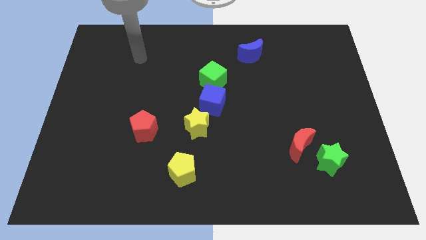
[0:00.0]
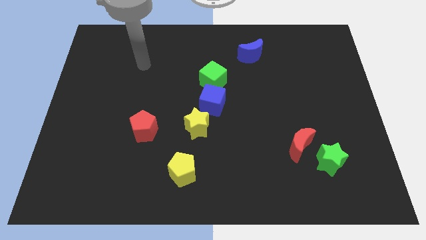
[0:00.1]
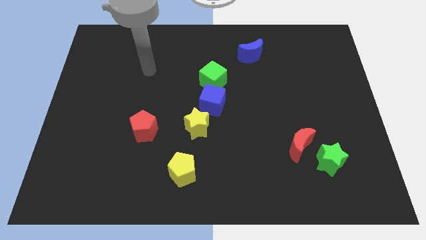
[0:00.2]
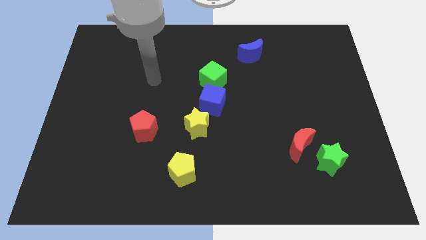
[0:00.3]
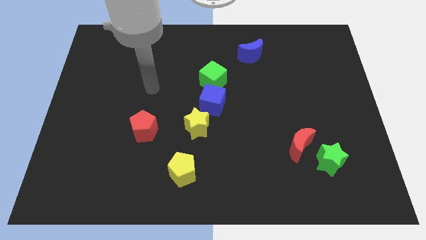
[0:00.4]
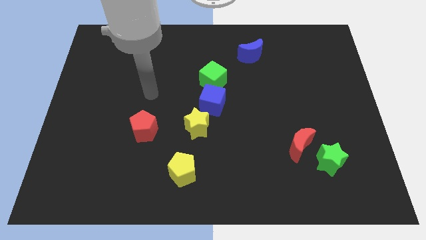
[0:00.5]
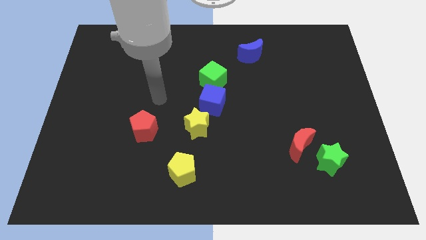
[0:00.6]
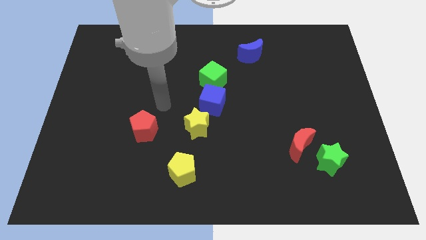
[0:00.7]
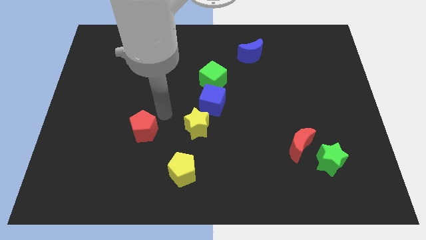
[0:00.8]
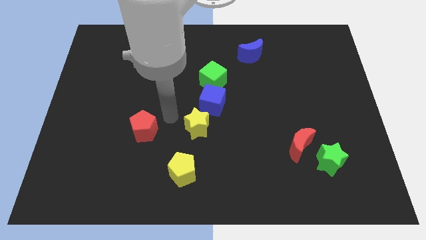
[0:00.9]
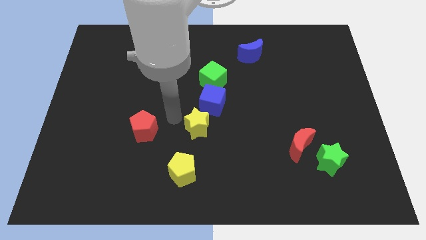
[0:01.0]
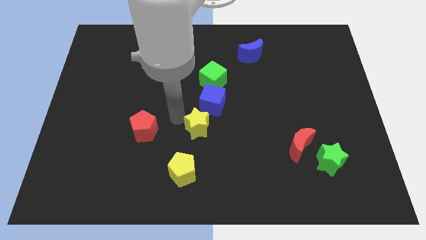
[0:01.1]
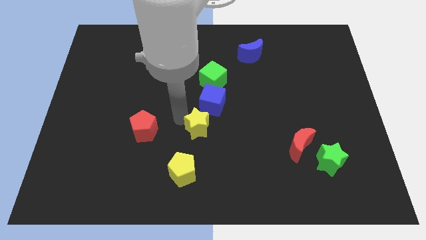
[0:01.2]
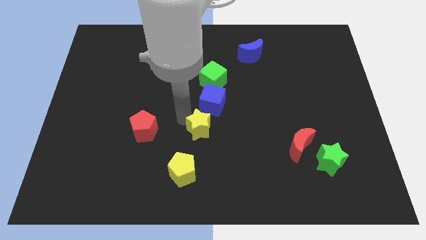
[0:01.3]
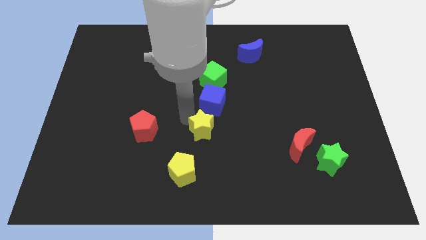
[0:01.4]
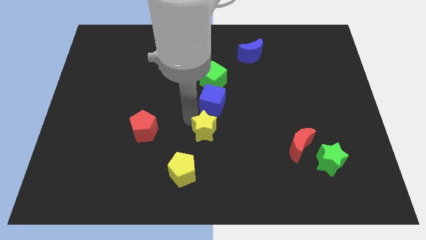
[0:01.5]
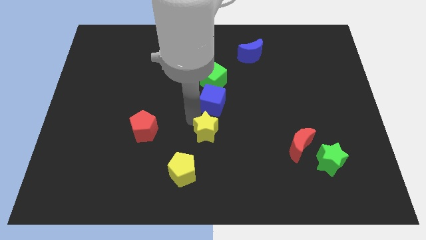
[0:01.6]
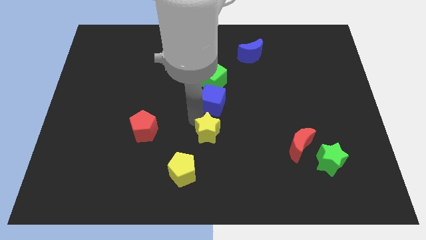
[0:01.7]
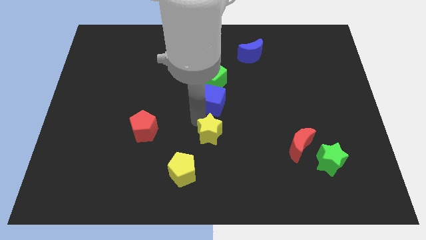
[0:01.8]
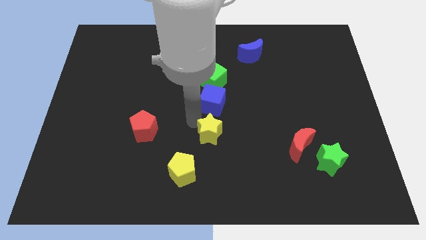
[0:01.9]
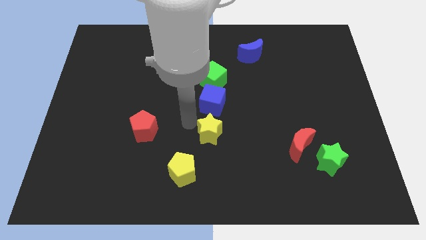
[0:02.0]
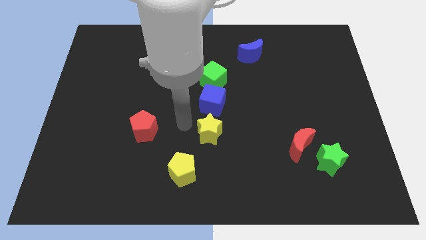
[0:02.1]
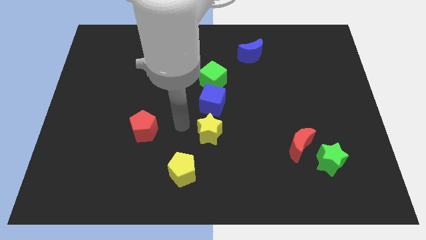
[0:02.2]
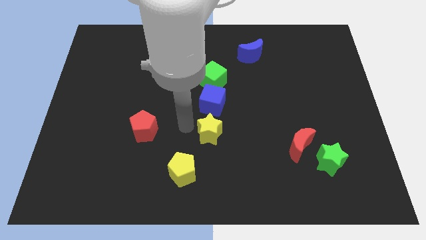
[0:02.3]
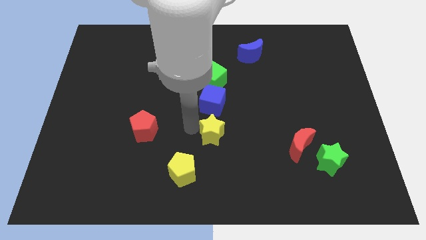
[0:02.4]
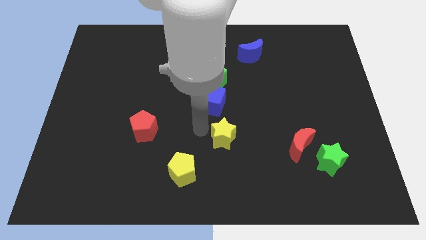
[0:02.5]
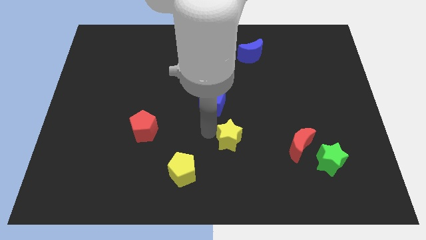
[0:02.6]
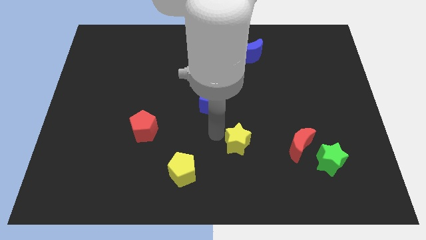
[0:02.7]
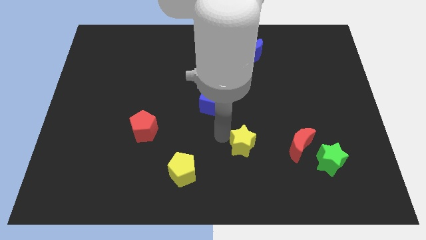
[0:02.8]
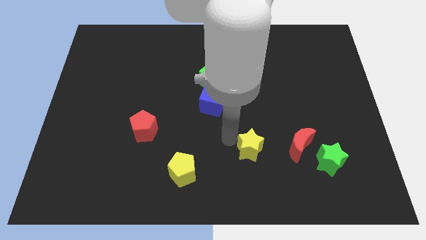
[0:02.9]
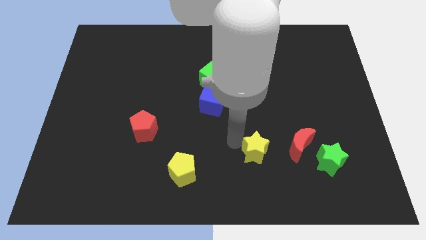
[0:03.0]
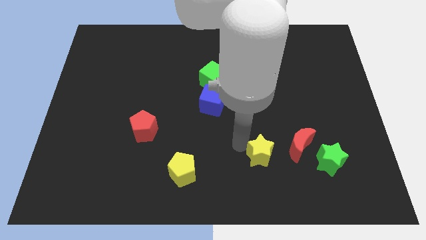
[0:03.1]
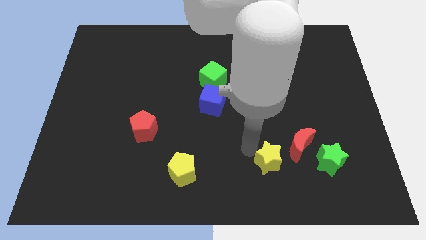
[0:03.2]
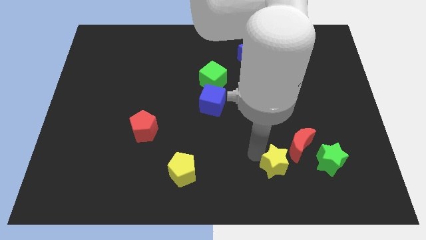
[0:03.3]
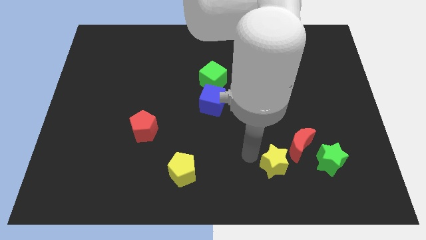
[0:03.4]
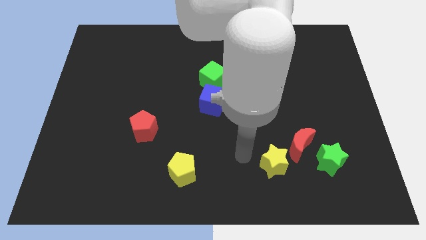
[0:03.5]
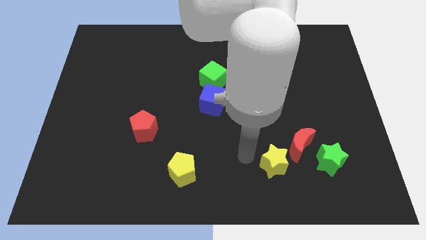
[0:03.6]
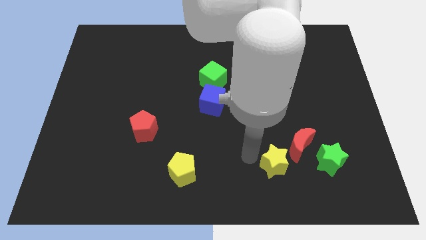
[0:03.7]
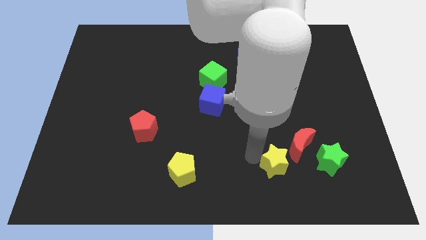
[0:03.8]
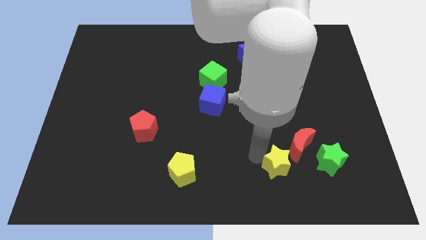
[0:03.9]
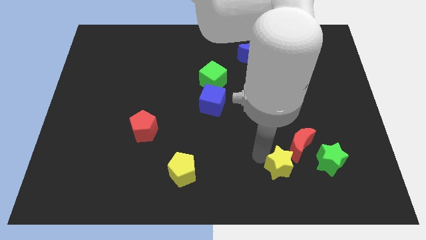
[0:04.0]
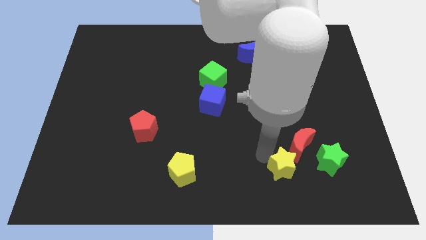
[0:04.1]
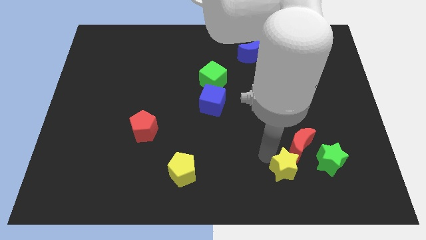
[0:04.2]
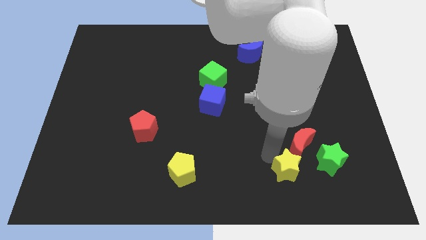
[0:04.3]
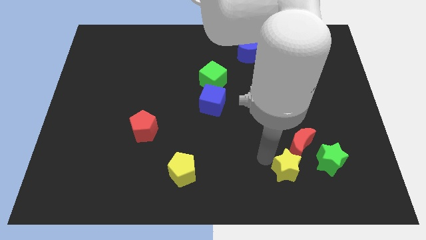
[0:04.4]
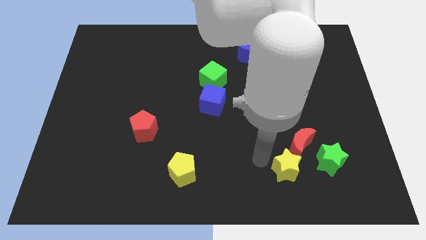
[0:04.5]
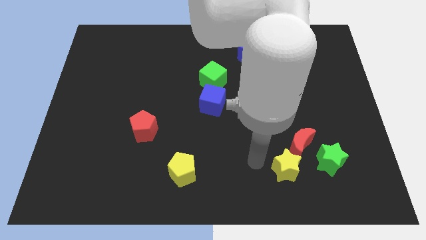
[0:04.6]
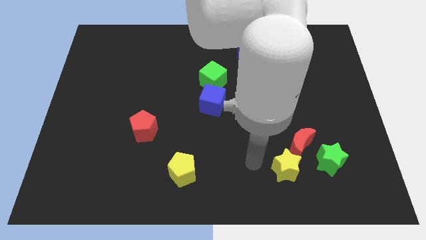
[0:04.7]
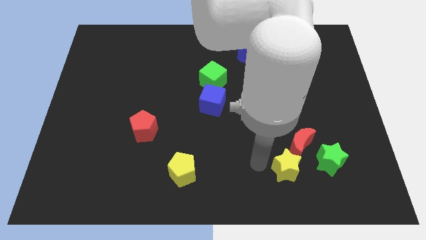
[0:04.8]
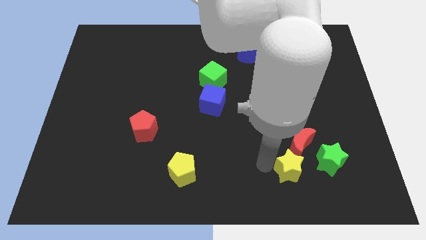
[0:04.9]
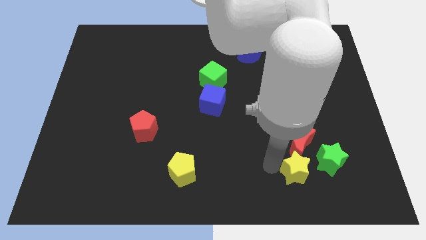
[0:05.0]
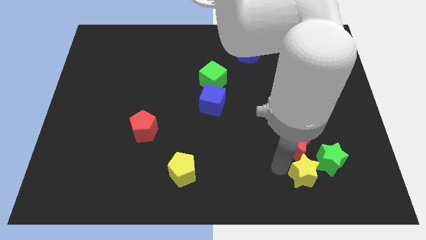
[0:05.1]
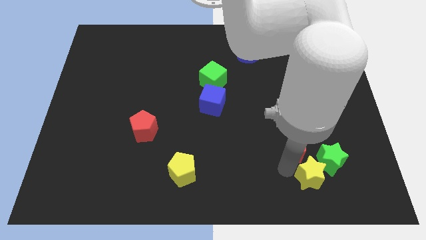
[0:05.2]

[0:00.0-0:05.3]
move the yellow star to the bottom right side of the red moon

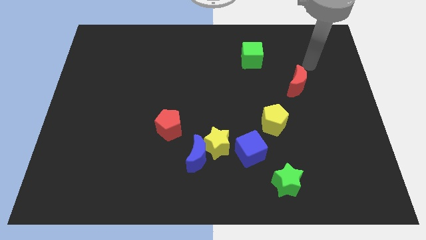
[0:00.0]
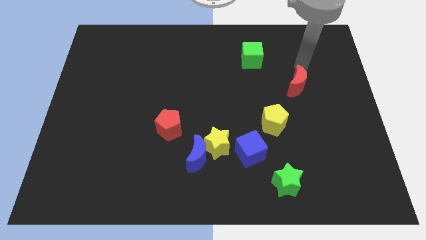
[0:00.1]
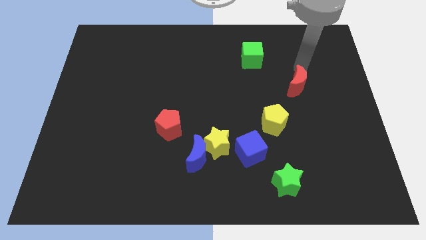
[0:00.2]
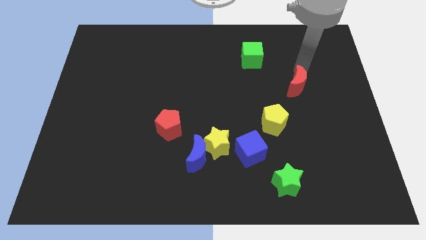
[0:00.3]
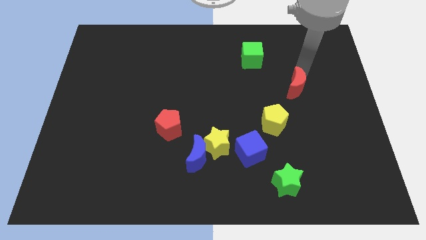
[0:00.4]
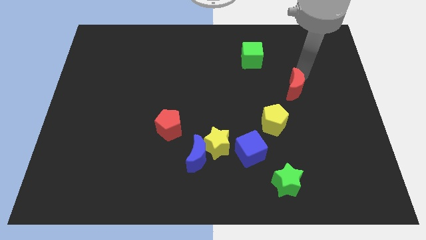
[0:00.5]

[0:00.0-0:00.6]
push the red moon to the top right side of the yellow pentagon

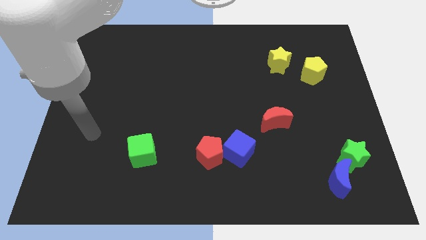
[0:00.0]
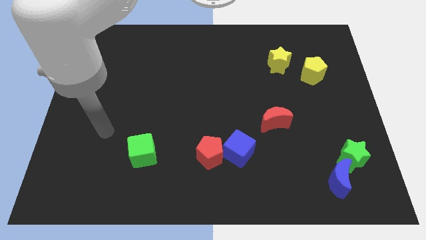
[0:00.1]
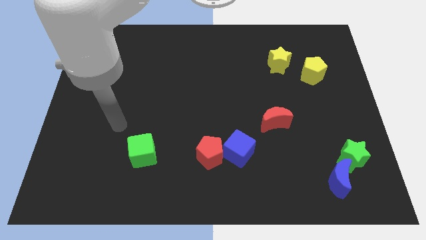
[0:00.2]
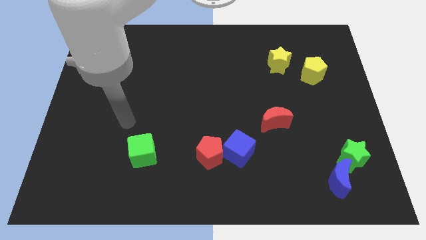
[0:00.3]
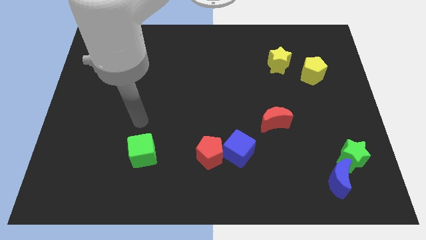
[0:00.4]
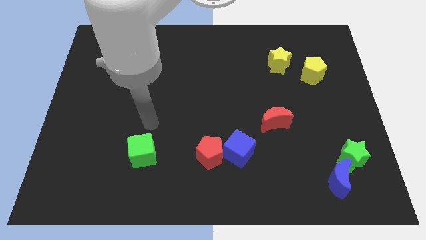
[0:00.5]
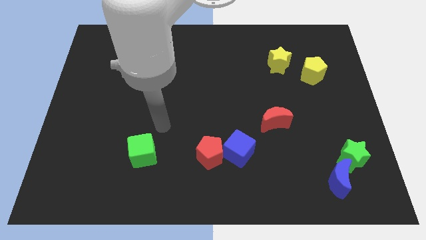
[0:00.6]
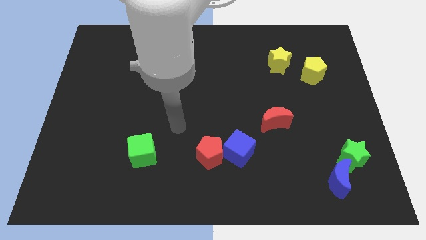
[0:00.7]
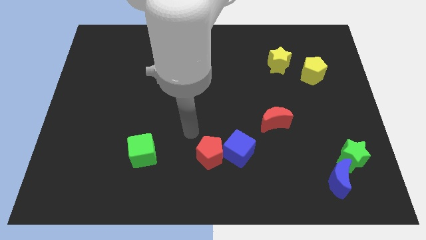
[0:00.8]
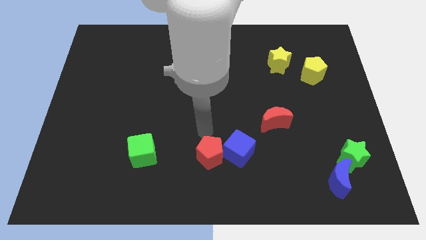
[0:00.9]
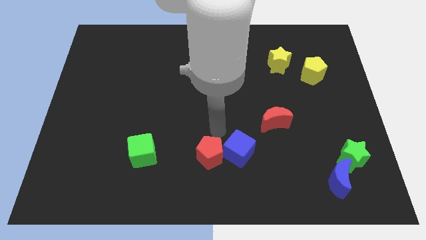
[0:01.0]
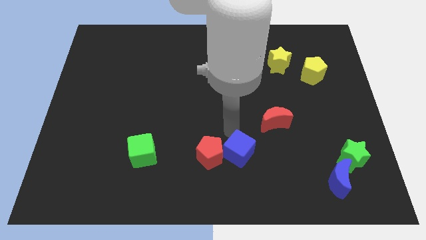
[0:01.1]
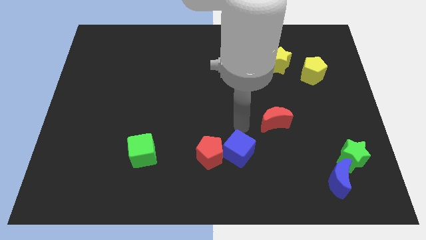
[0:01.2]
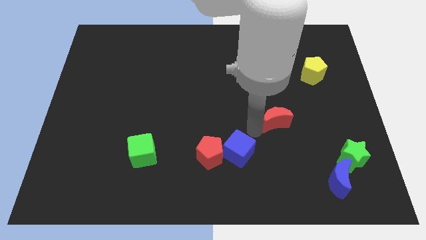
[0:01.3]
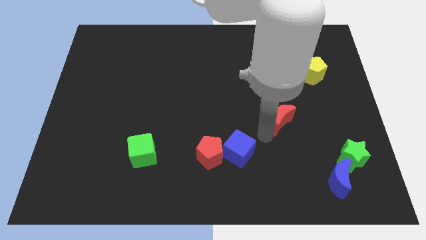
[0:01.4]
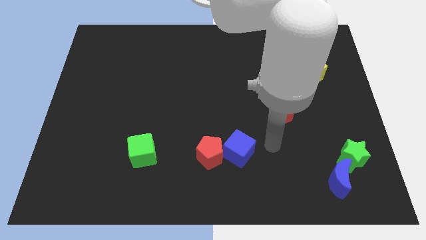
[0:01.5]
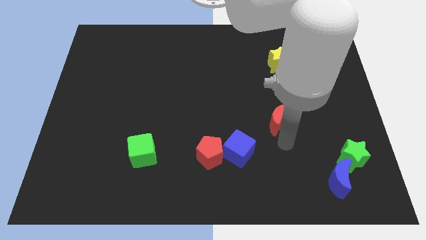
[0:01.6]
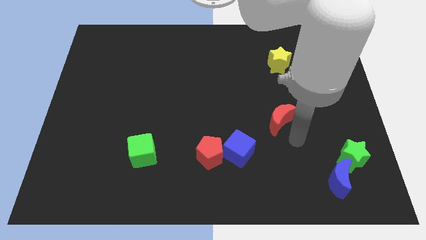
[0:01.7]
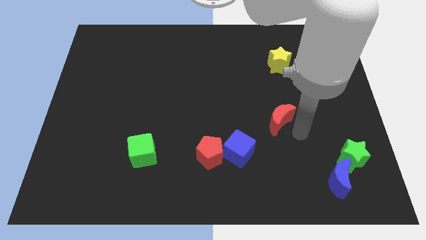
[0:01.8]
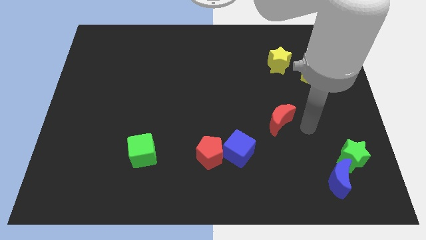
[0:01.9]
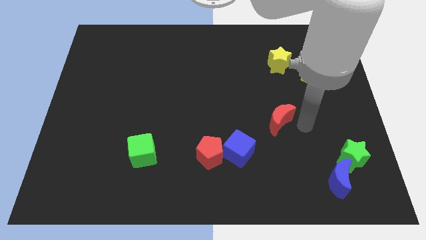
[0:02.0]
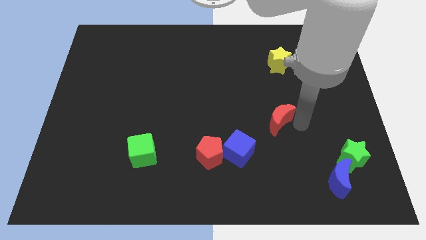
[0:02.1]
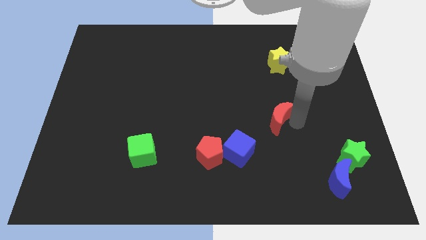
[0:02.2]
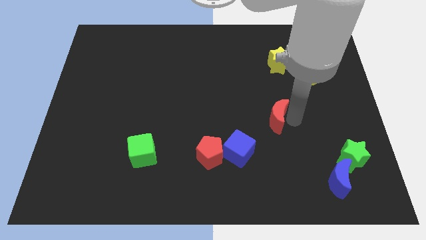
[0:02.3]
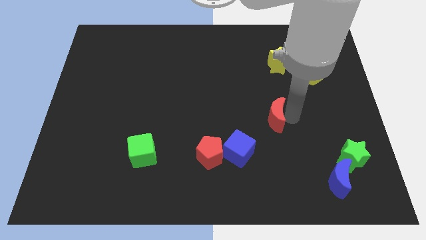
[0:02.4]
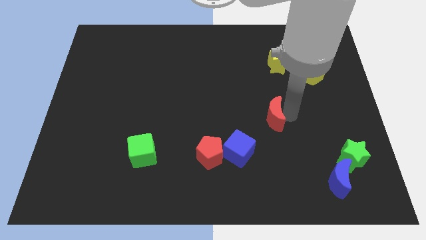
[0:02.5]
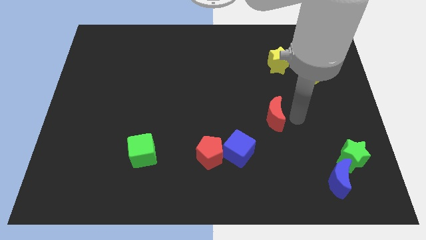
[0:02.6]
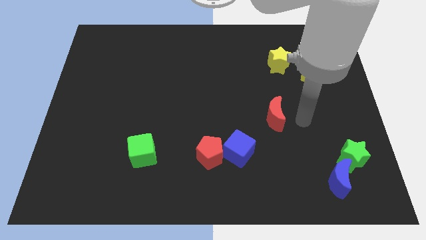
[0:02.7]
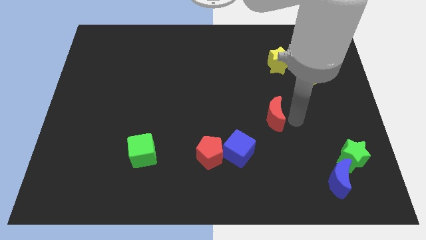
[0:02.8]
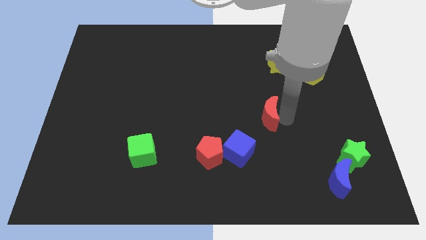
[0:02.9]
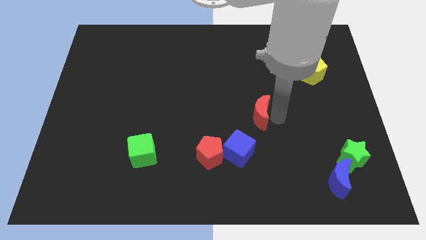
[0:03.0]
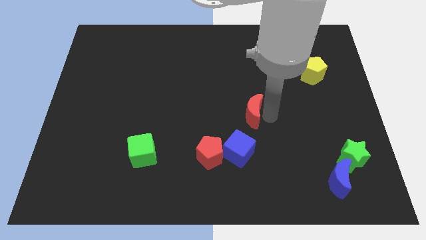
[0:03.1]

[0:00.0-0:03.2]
push the red moon above the blue cube
